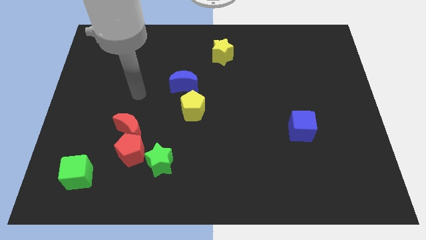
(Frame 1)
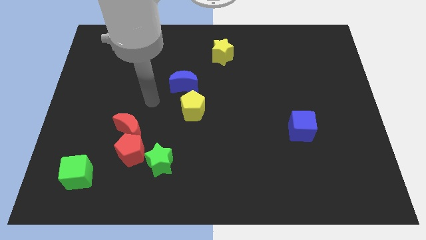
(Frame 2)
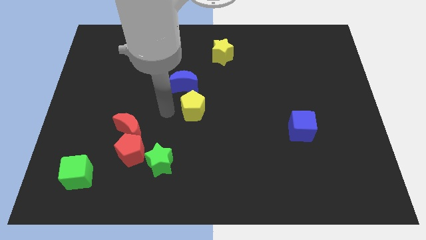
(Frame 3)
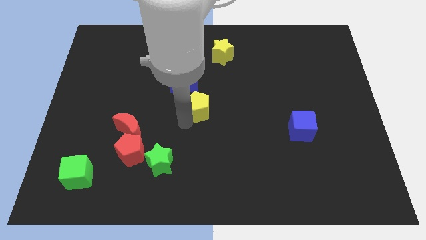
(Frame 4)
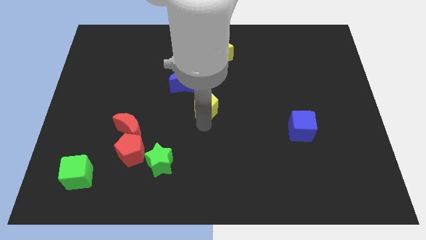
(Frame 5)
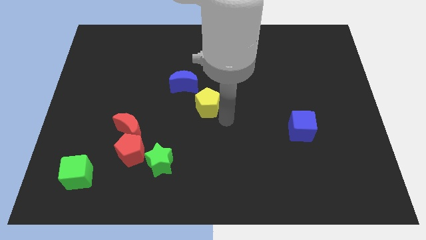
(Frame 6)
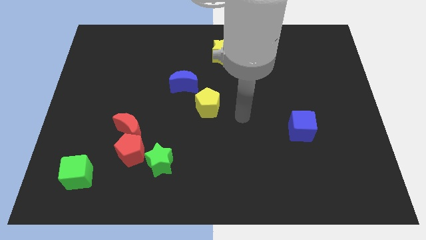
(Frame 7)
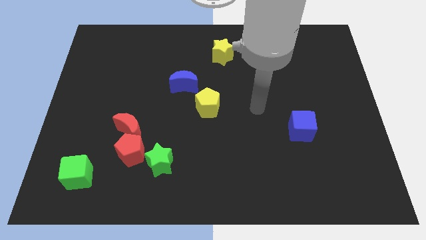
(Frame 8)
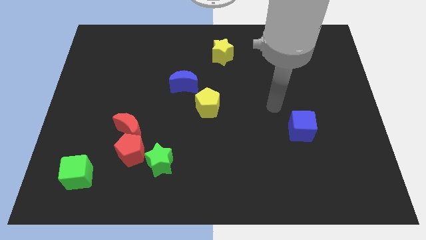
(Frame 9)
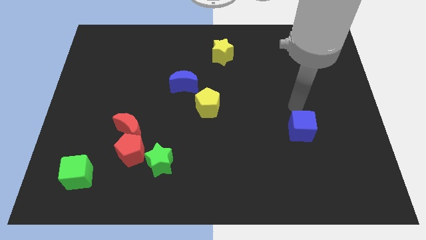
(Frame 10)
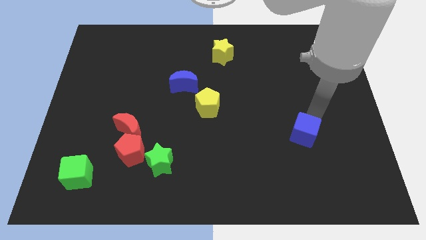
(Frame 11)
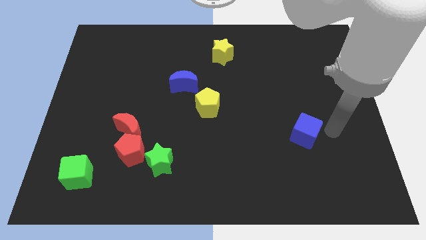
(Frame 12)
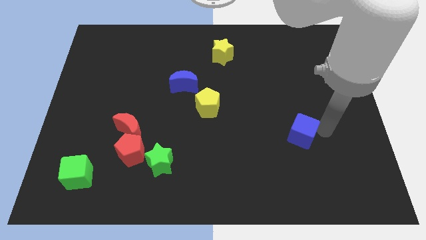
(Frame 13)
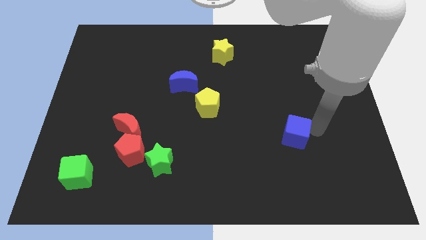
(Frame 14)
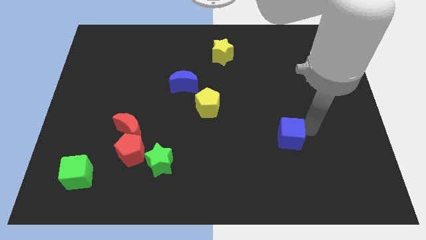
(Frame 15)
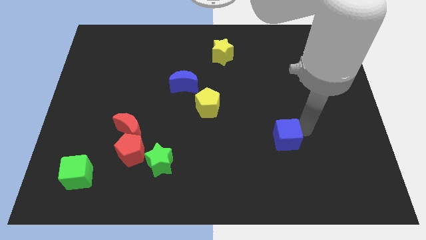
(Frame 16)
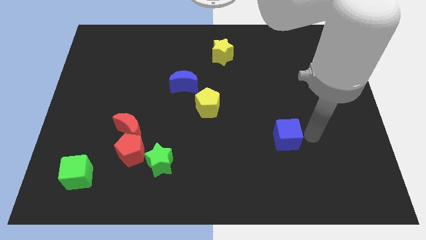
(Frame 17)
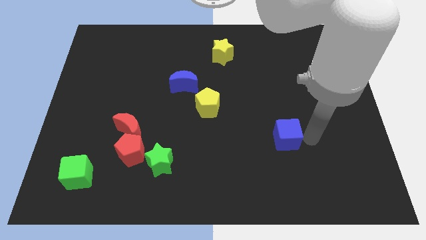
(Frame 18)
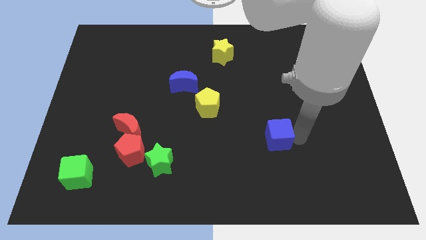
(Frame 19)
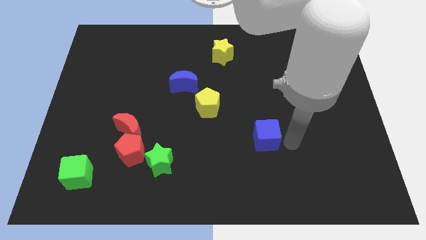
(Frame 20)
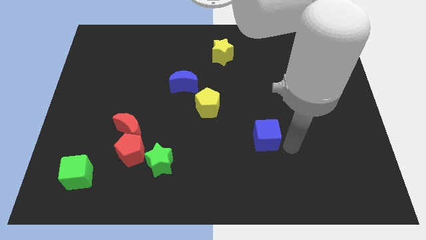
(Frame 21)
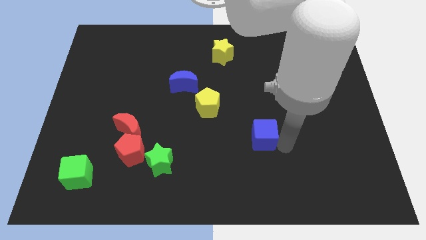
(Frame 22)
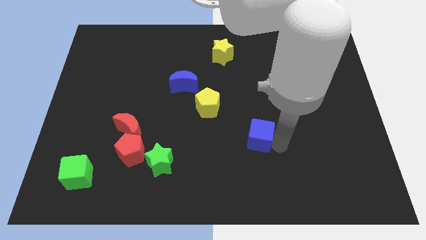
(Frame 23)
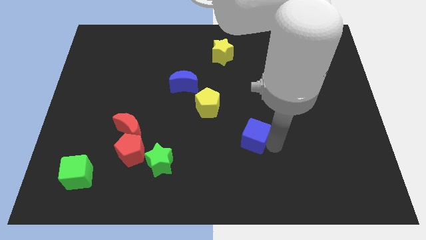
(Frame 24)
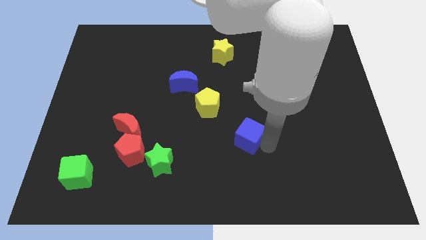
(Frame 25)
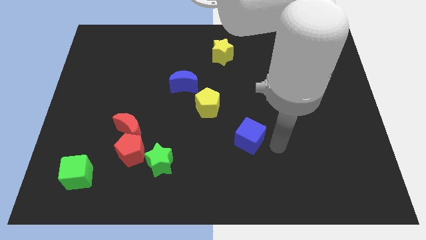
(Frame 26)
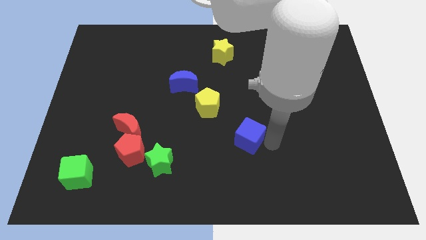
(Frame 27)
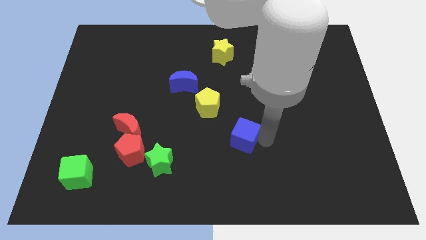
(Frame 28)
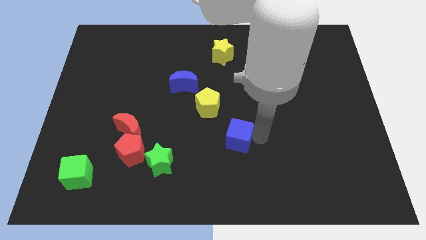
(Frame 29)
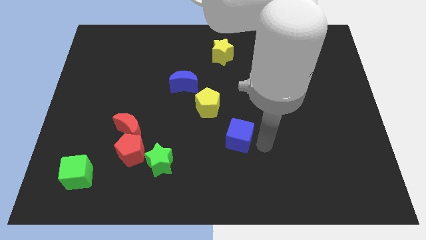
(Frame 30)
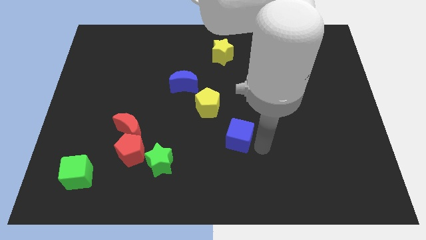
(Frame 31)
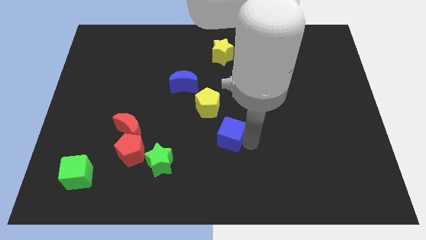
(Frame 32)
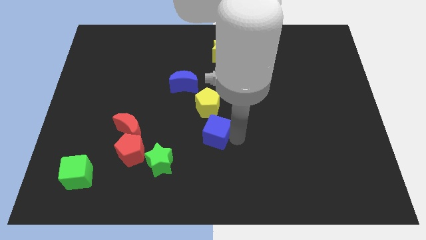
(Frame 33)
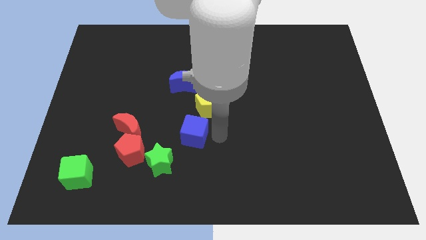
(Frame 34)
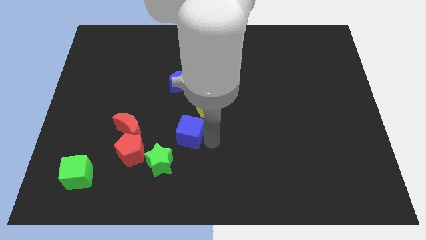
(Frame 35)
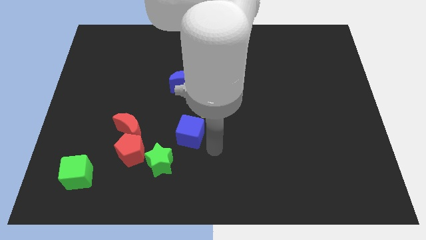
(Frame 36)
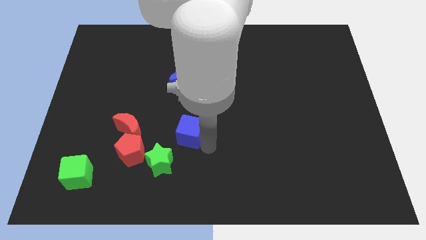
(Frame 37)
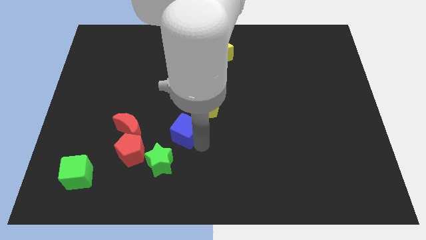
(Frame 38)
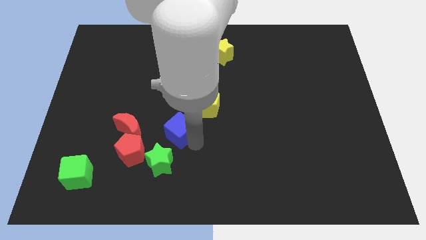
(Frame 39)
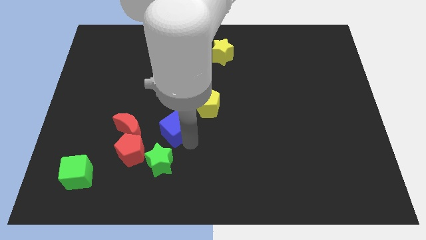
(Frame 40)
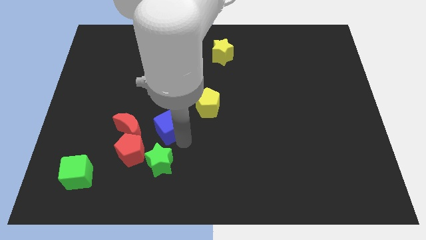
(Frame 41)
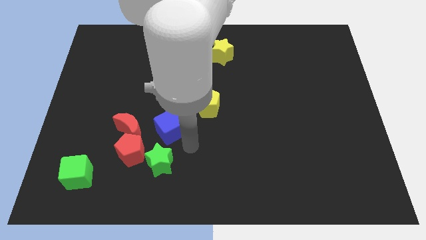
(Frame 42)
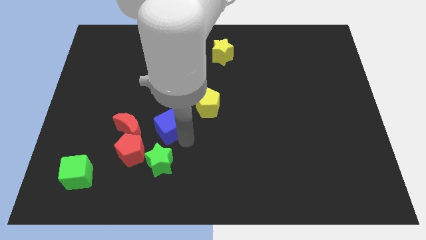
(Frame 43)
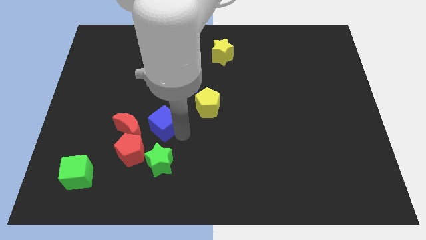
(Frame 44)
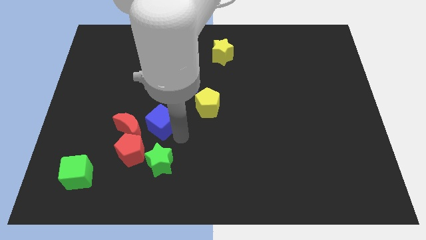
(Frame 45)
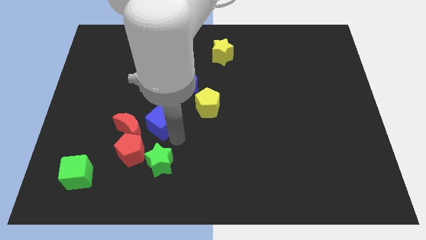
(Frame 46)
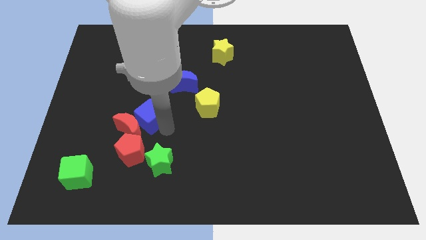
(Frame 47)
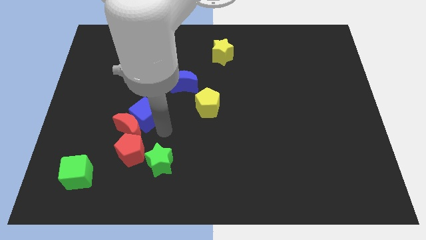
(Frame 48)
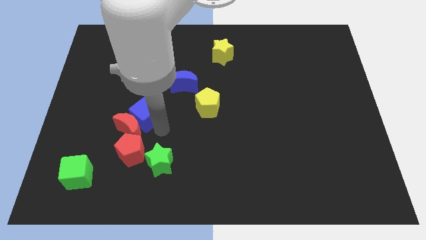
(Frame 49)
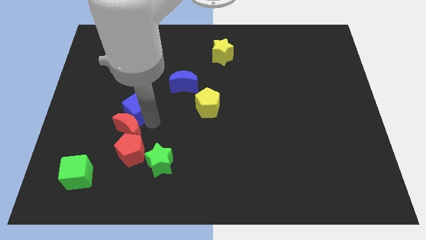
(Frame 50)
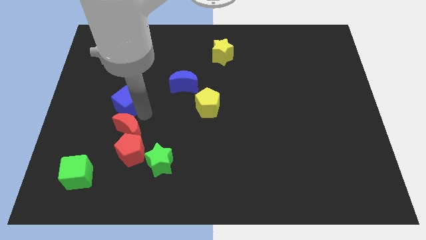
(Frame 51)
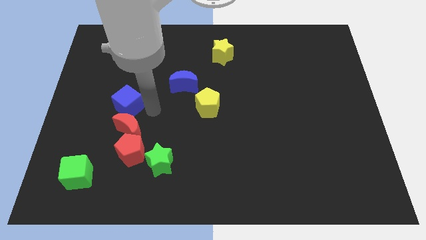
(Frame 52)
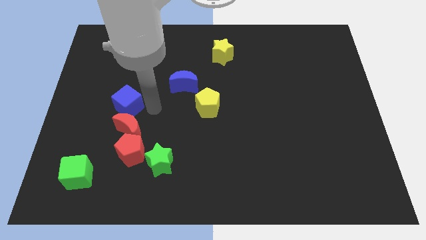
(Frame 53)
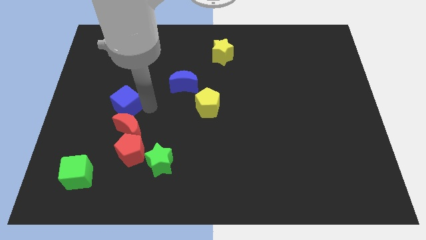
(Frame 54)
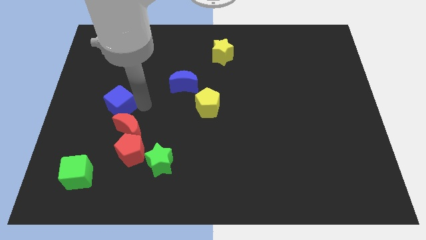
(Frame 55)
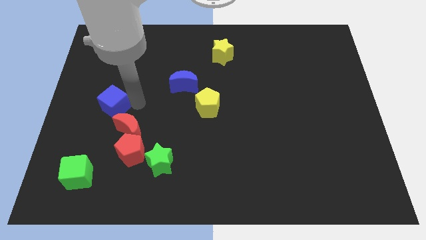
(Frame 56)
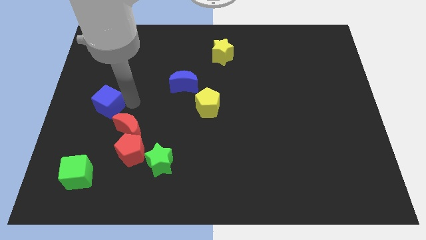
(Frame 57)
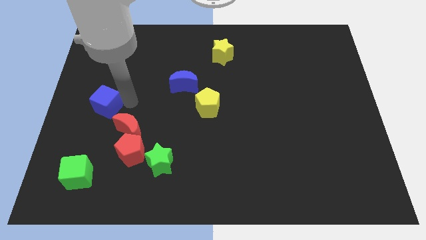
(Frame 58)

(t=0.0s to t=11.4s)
move the blue cube to the left side of the board
